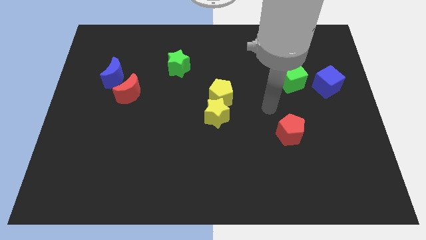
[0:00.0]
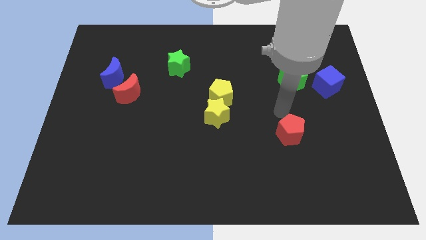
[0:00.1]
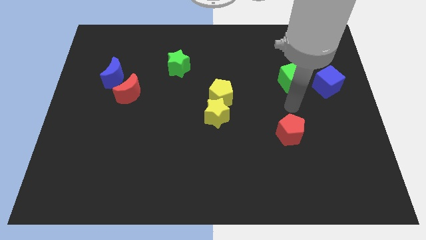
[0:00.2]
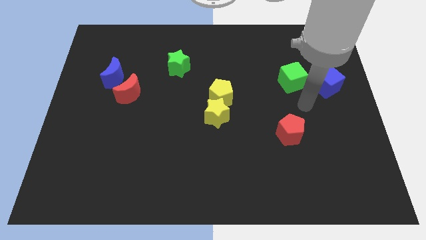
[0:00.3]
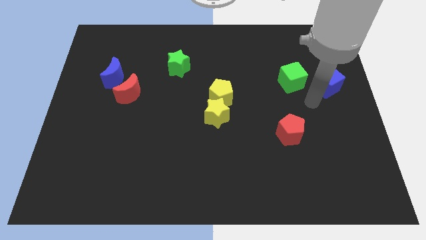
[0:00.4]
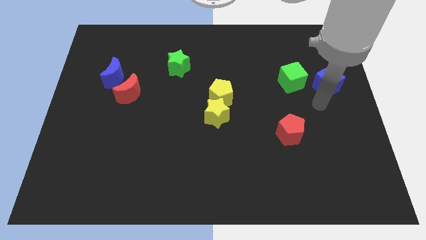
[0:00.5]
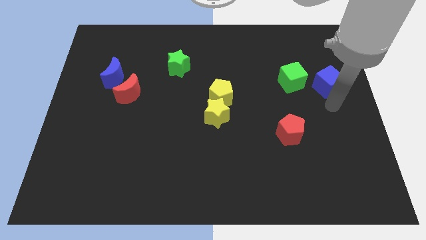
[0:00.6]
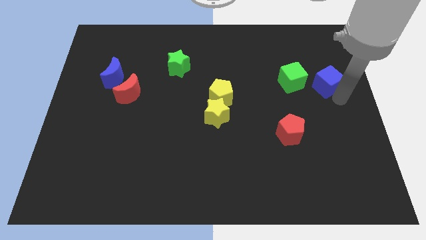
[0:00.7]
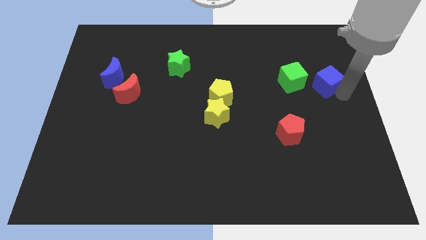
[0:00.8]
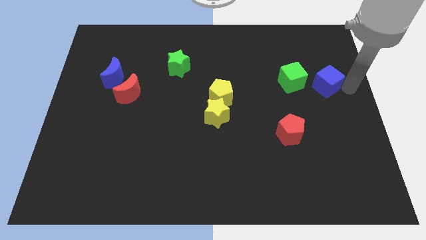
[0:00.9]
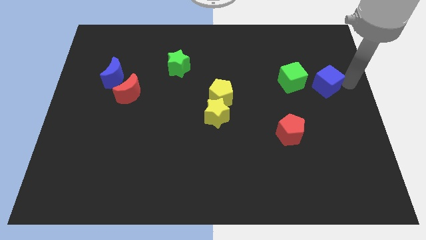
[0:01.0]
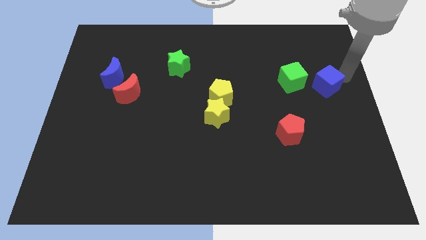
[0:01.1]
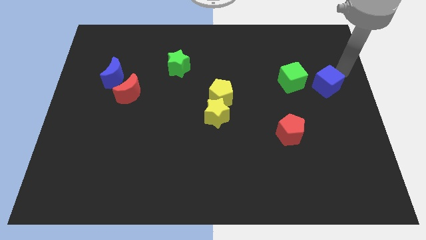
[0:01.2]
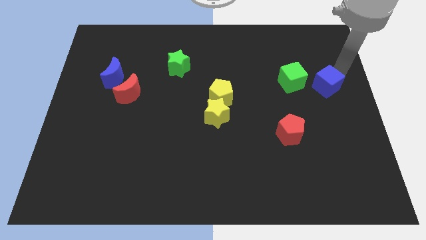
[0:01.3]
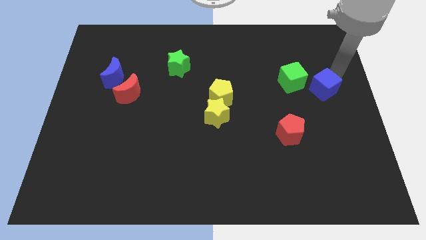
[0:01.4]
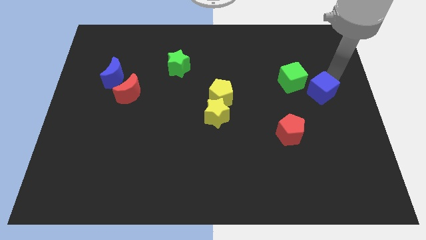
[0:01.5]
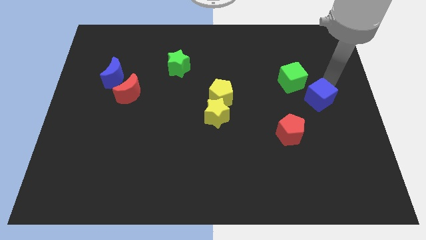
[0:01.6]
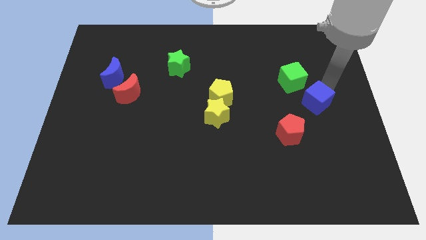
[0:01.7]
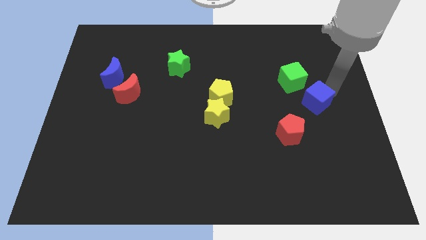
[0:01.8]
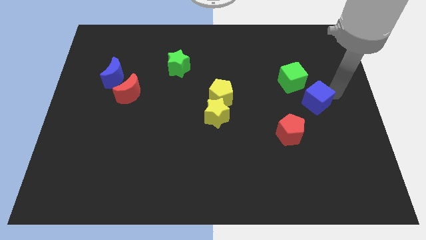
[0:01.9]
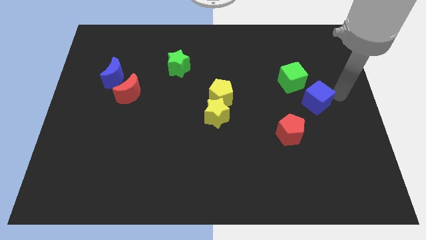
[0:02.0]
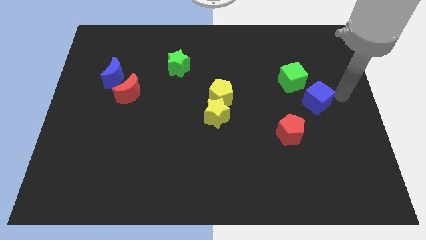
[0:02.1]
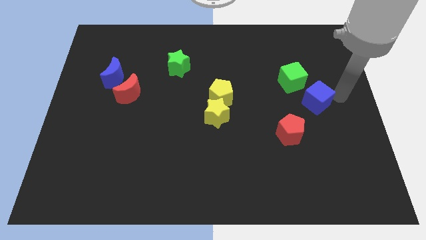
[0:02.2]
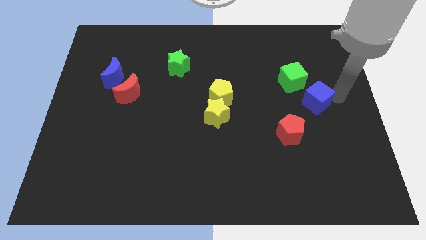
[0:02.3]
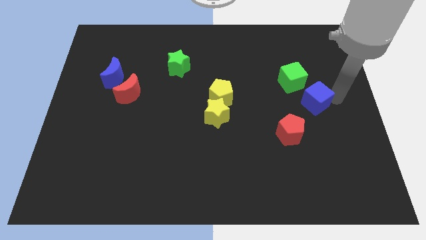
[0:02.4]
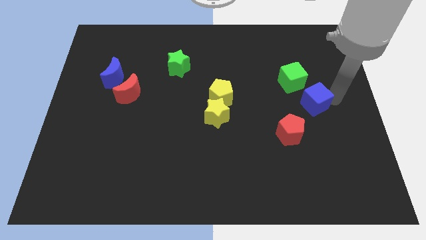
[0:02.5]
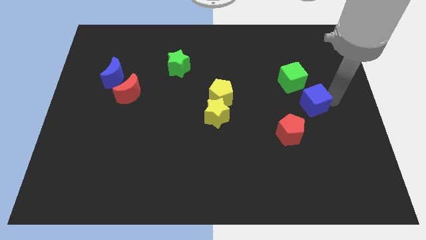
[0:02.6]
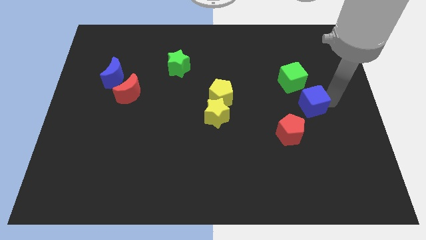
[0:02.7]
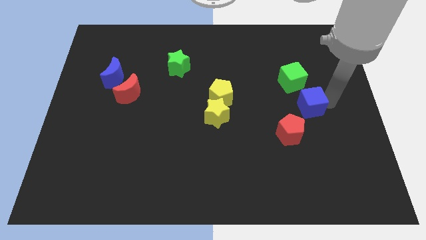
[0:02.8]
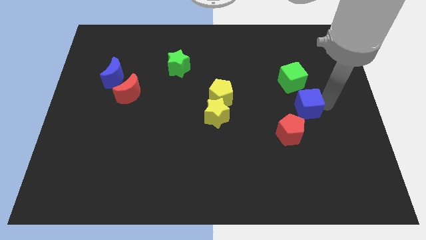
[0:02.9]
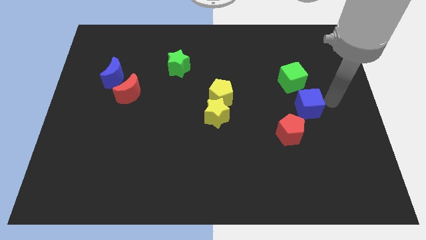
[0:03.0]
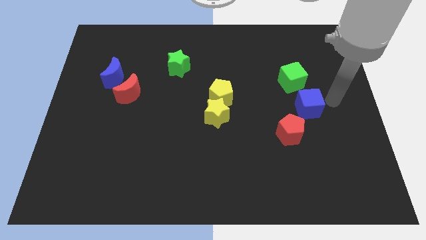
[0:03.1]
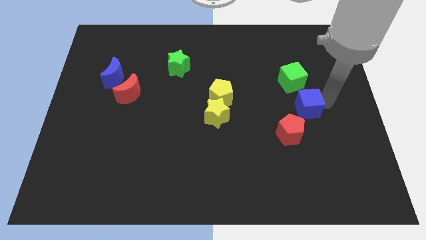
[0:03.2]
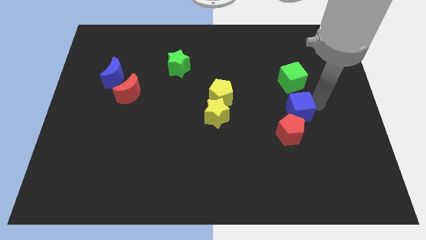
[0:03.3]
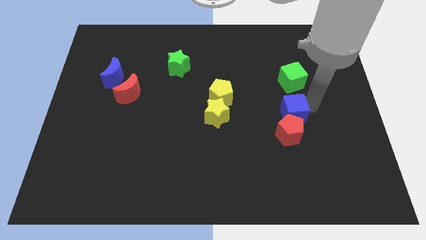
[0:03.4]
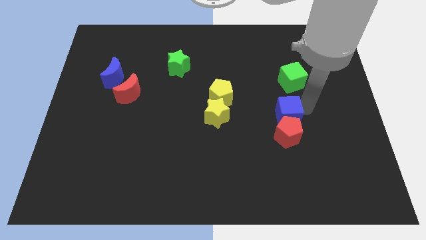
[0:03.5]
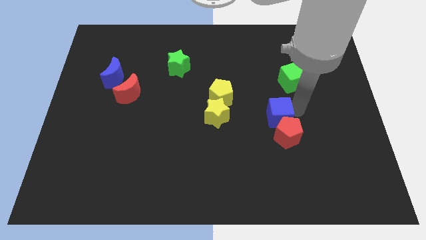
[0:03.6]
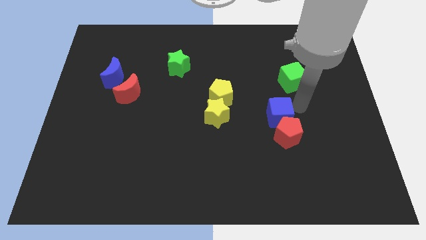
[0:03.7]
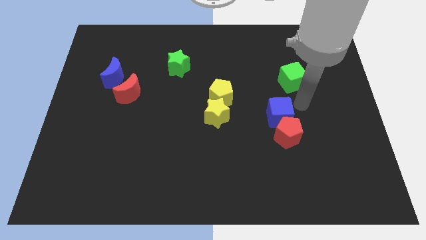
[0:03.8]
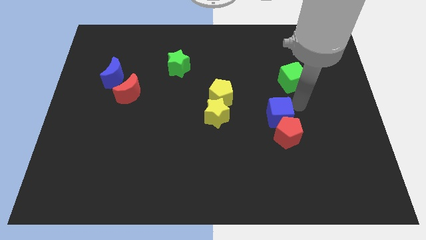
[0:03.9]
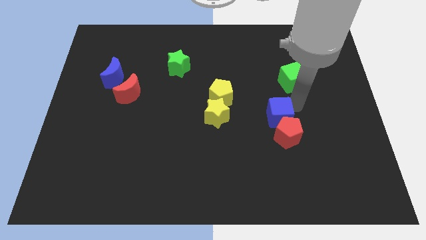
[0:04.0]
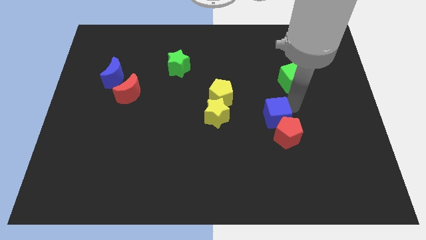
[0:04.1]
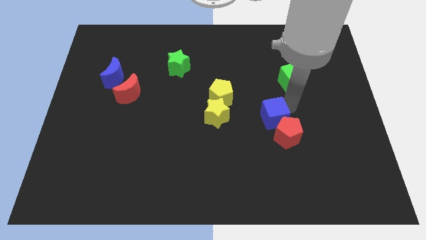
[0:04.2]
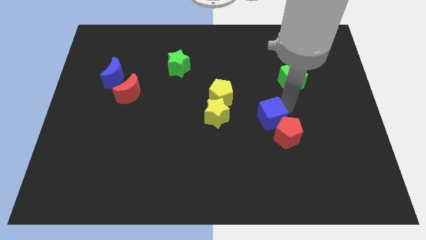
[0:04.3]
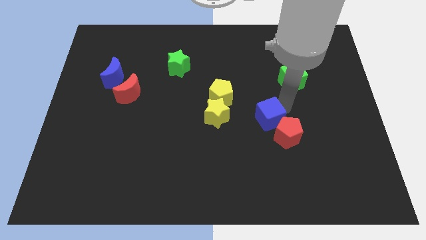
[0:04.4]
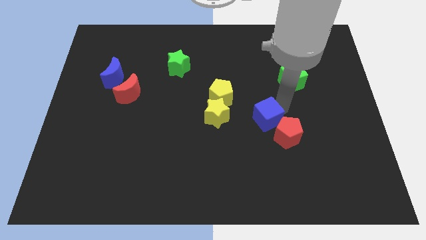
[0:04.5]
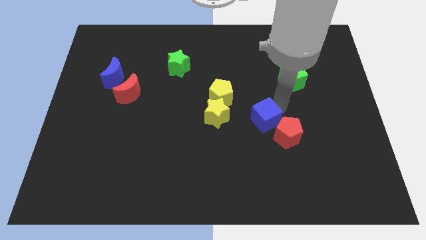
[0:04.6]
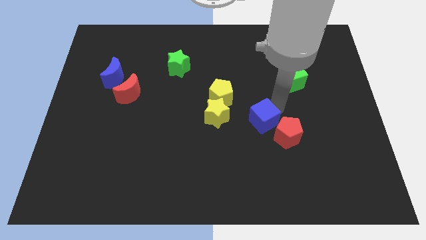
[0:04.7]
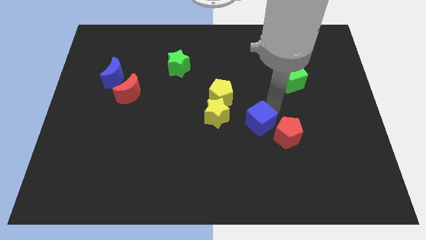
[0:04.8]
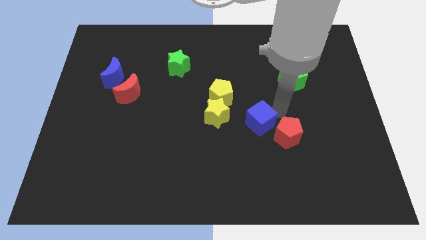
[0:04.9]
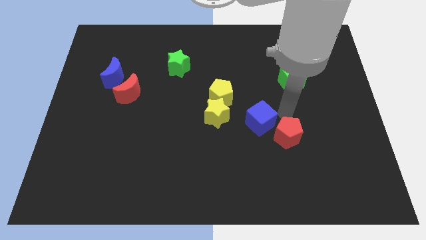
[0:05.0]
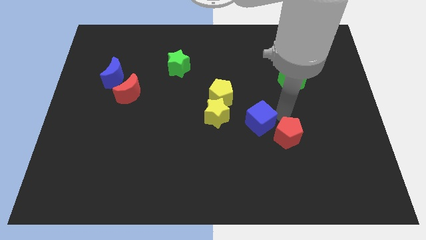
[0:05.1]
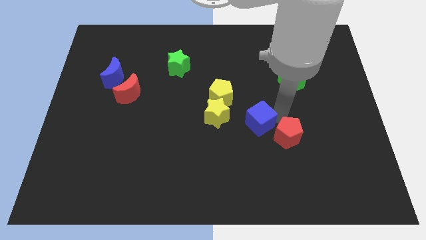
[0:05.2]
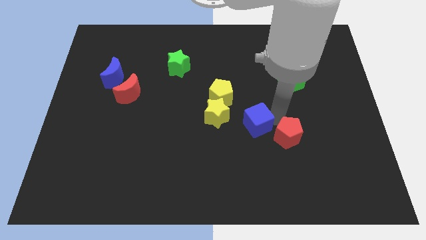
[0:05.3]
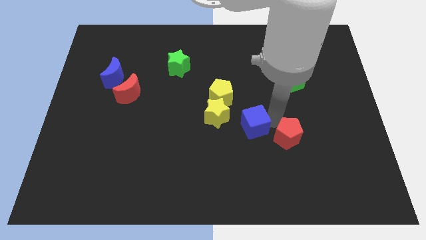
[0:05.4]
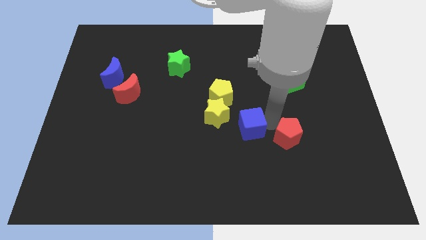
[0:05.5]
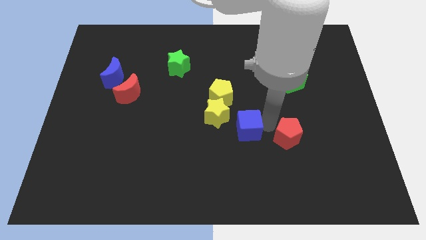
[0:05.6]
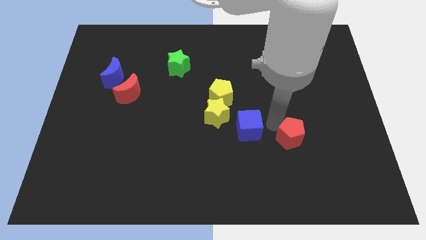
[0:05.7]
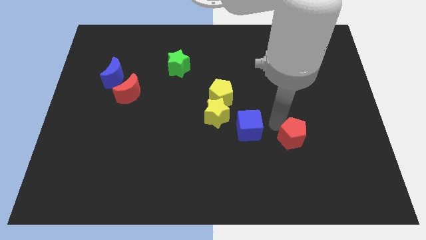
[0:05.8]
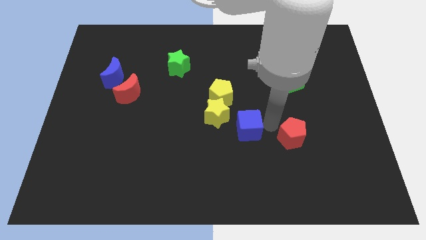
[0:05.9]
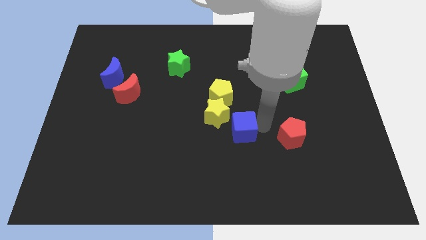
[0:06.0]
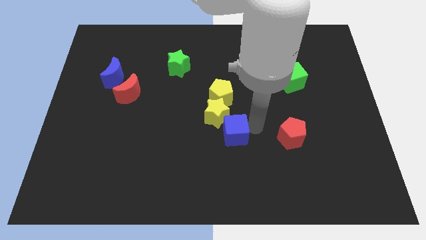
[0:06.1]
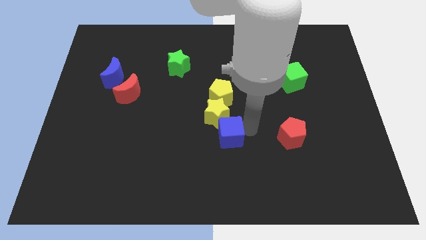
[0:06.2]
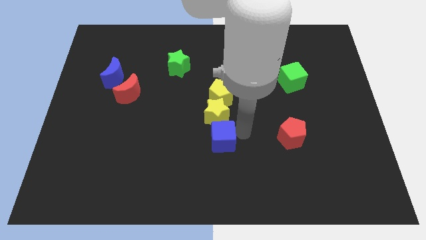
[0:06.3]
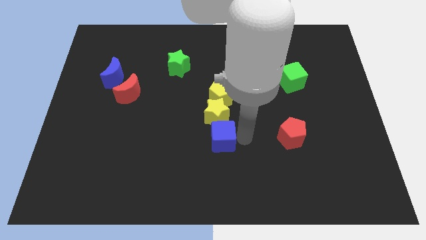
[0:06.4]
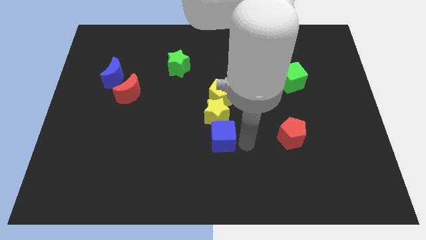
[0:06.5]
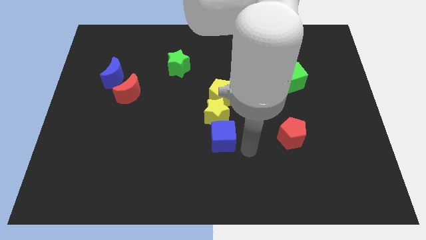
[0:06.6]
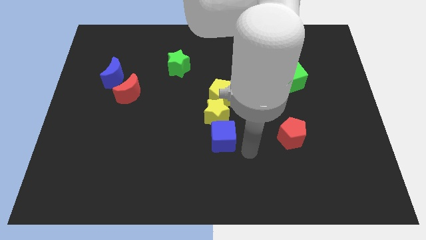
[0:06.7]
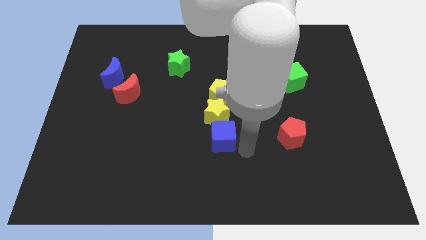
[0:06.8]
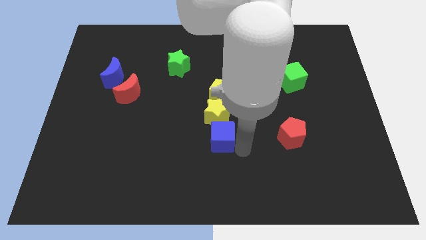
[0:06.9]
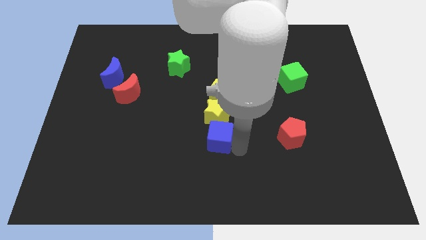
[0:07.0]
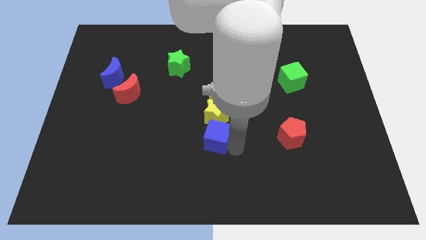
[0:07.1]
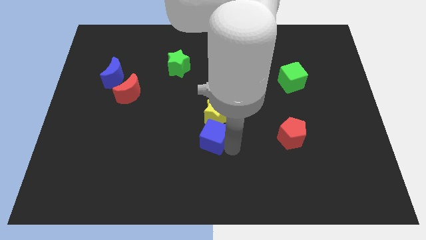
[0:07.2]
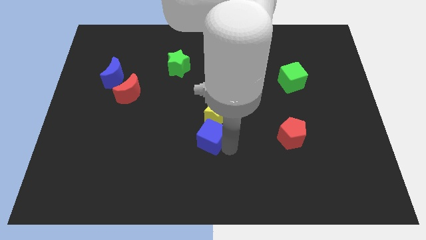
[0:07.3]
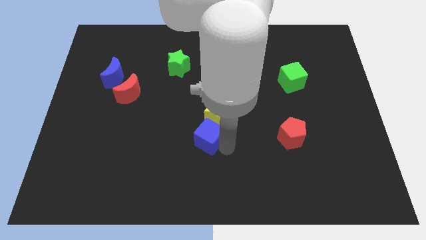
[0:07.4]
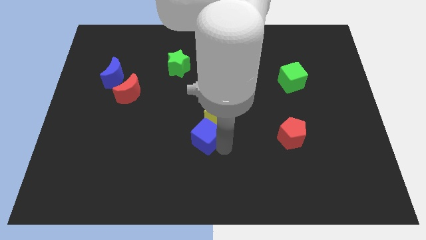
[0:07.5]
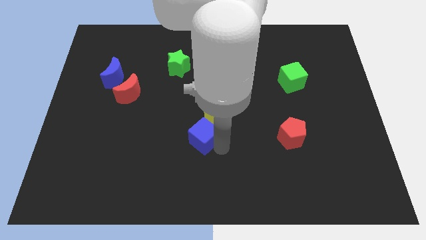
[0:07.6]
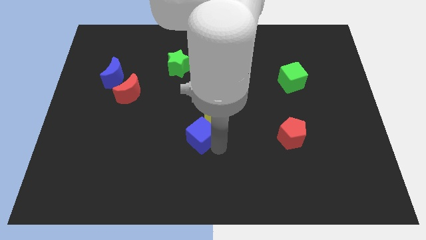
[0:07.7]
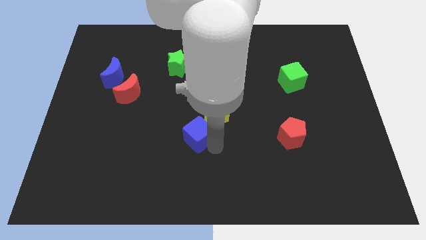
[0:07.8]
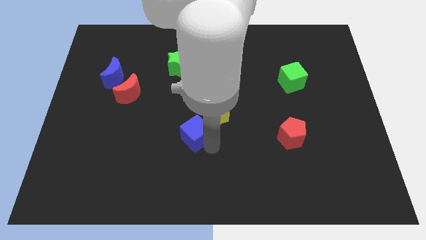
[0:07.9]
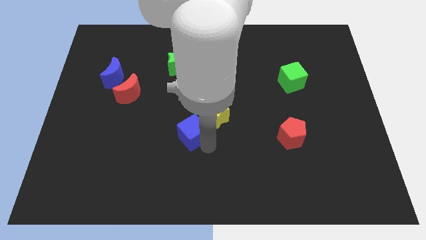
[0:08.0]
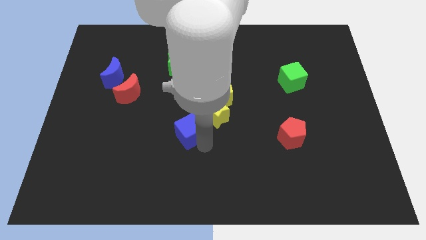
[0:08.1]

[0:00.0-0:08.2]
slide the blue cube diagonally down and to the left of the yellow pentagon
